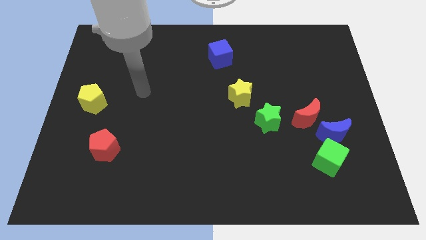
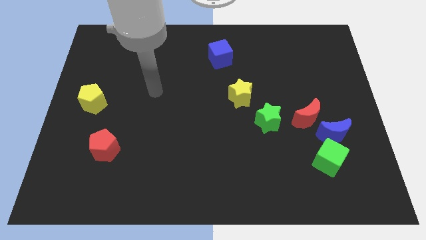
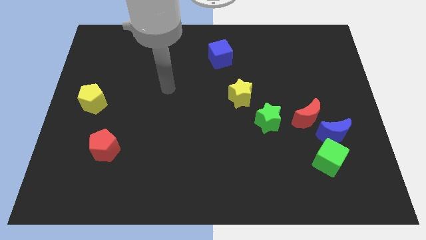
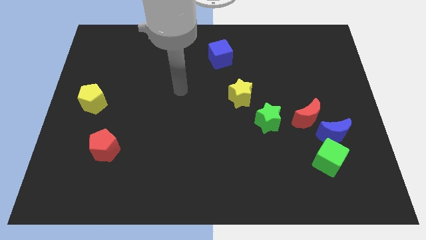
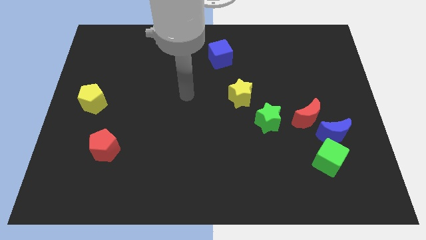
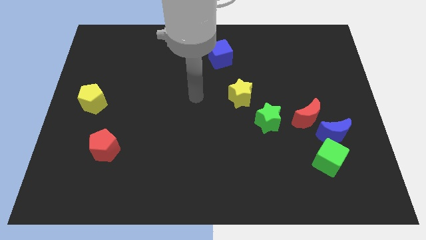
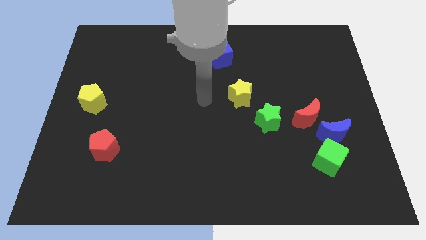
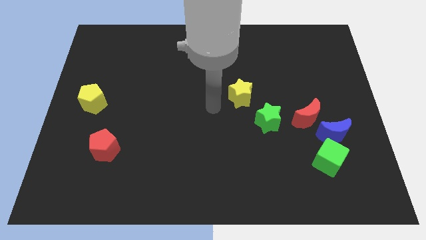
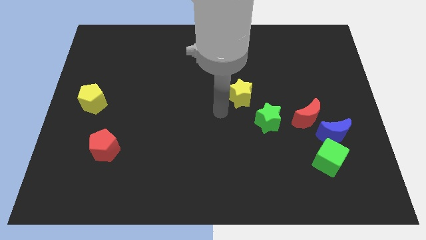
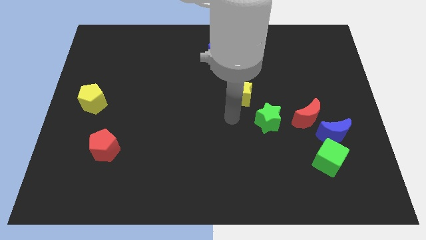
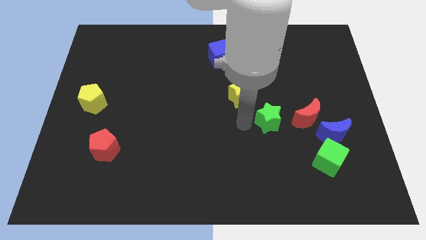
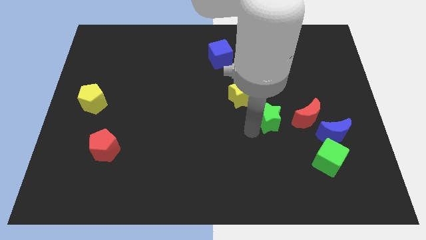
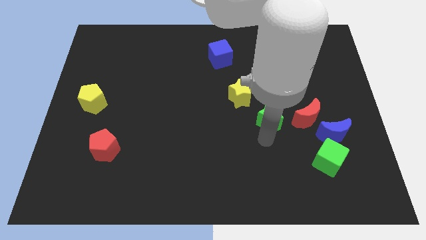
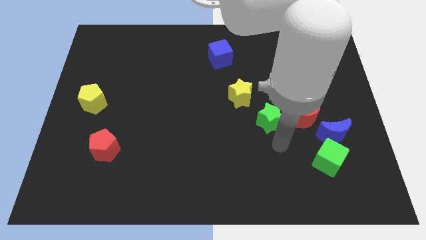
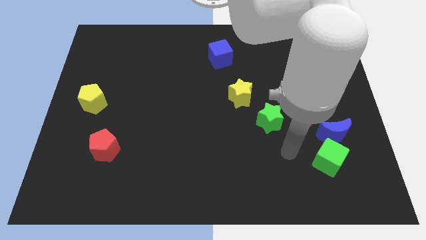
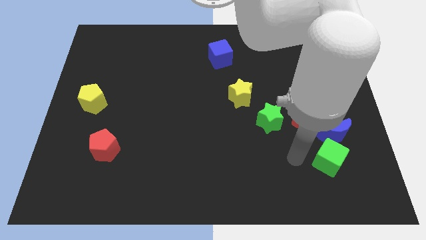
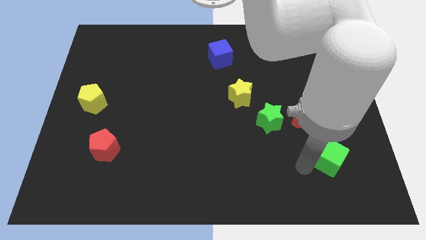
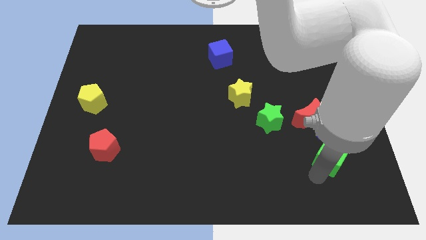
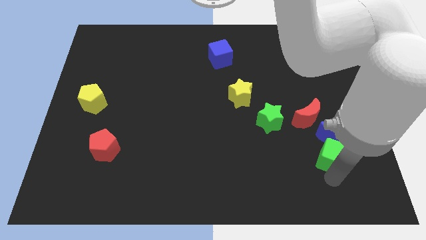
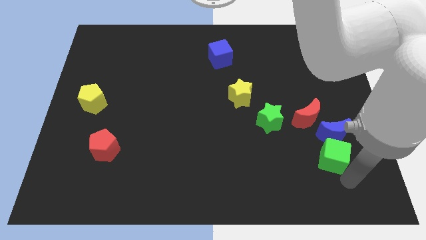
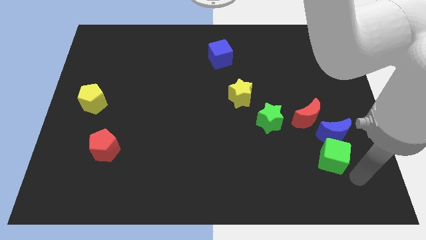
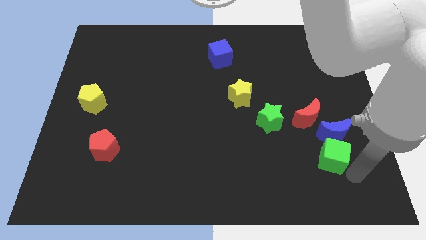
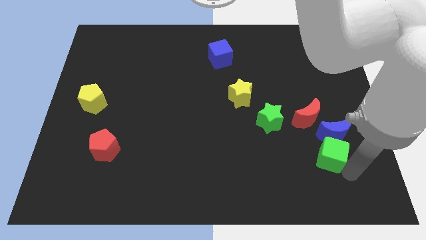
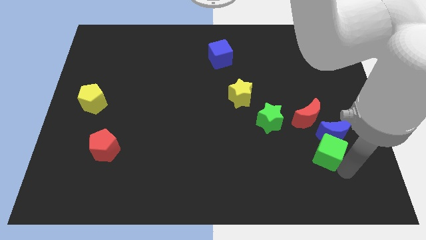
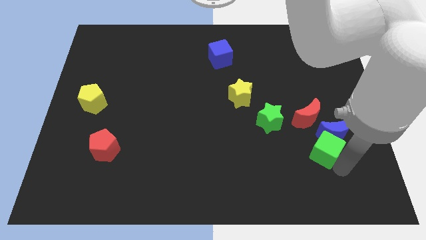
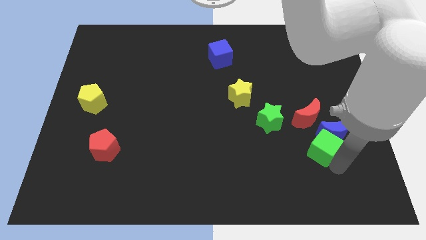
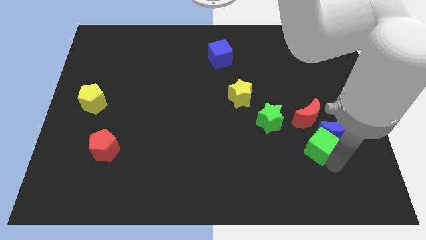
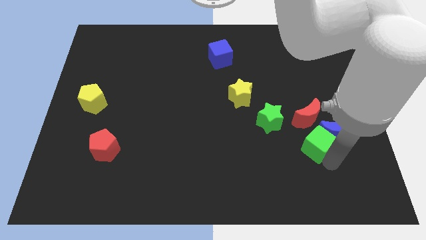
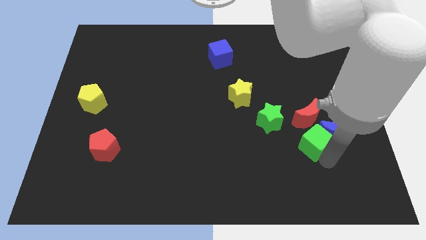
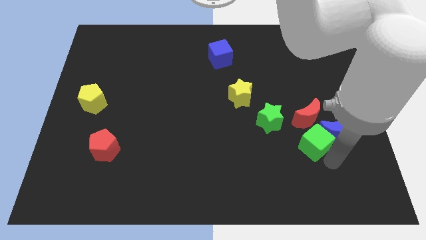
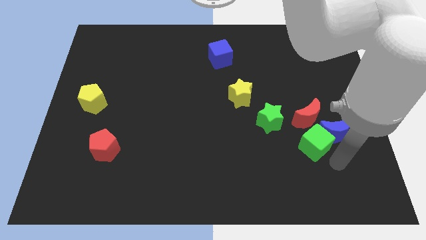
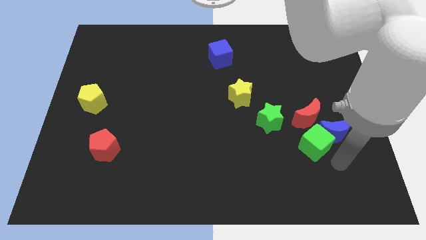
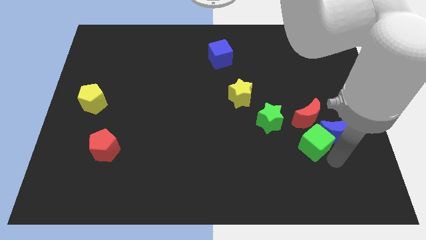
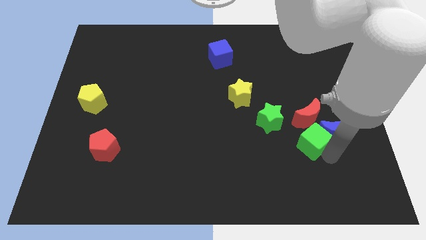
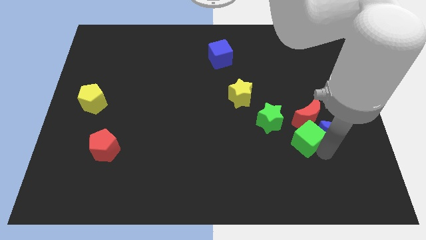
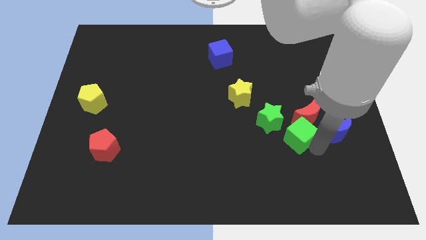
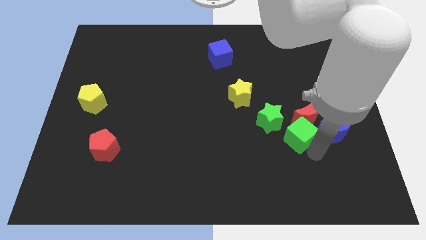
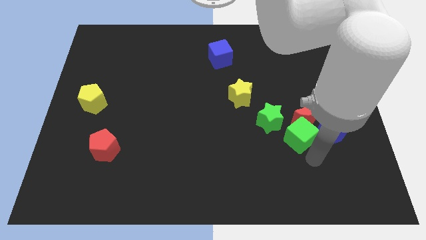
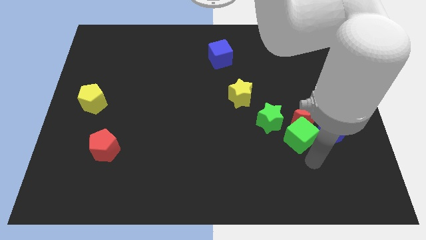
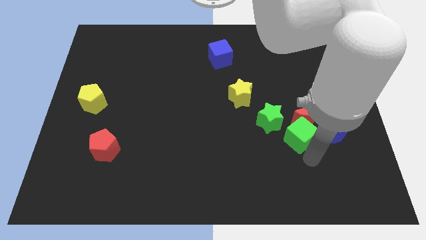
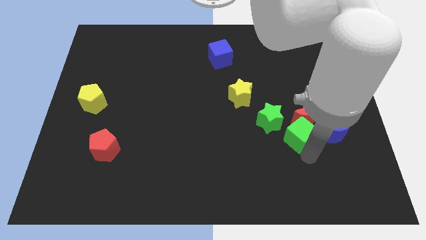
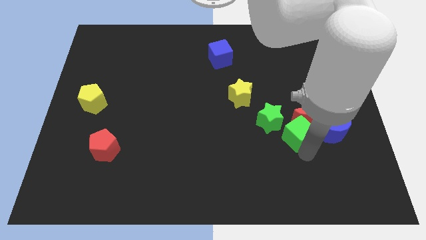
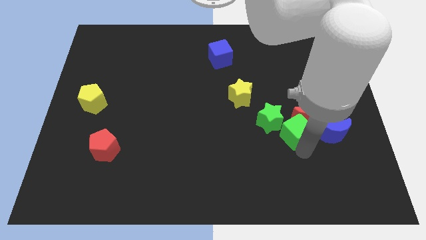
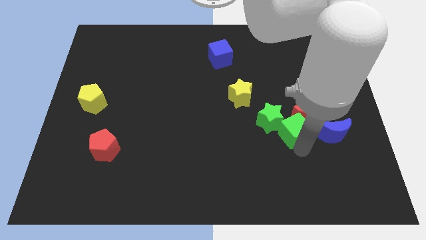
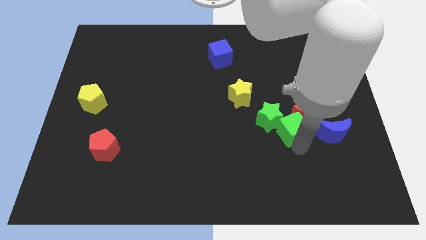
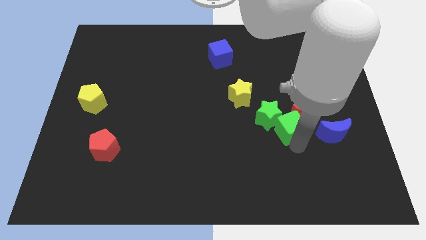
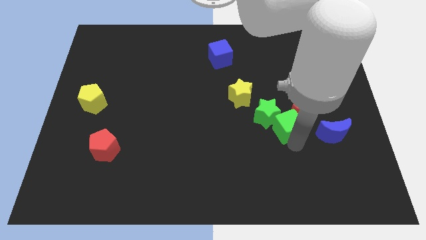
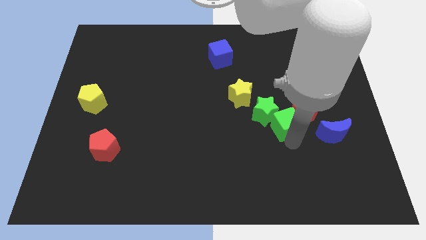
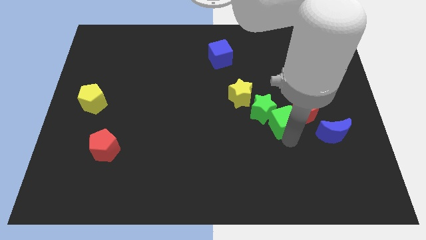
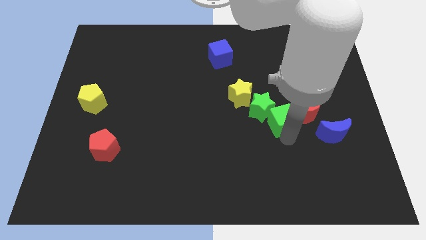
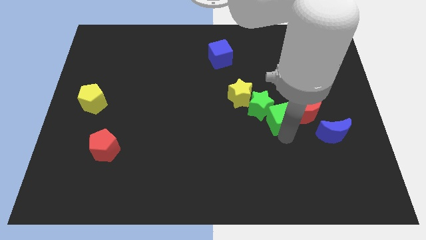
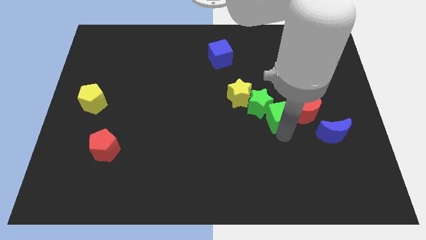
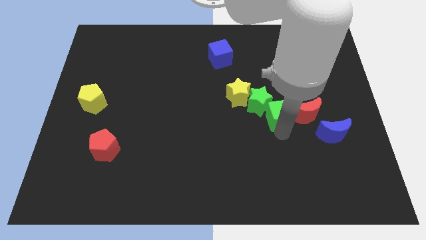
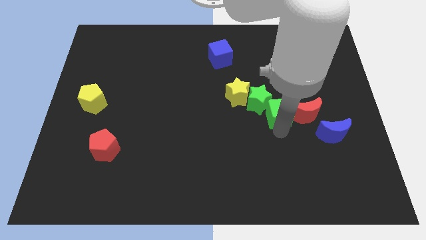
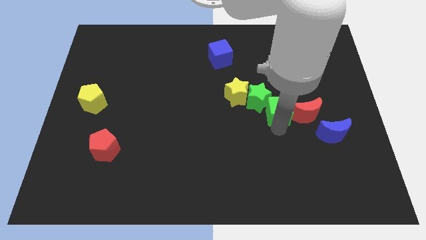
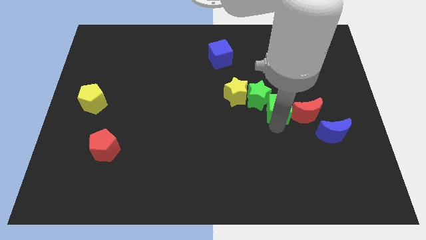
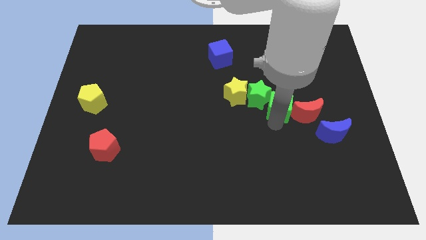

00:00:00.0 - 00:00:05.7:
push the green cube to the right of the yellow star

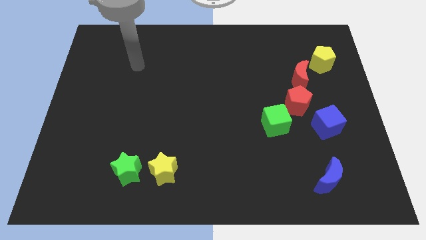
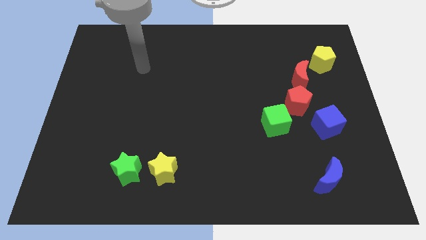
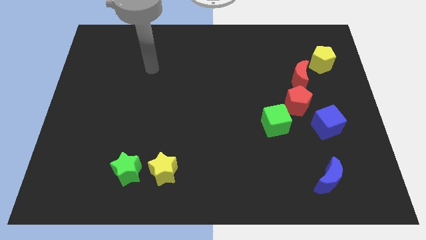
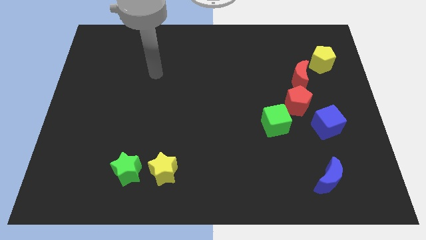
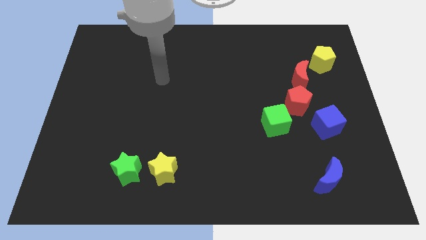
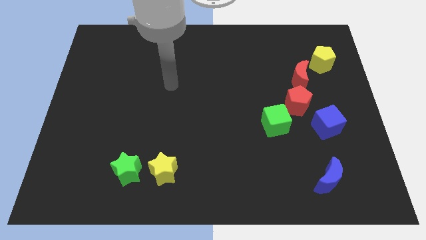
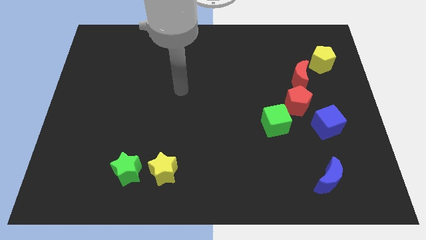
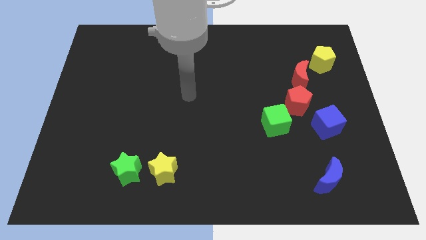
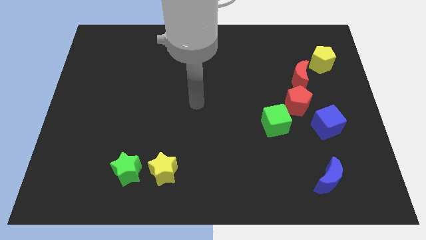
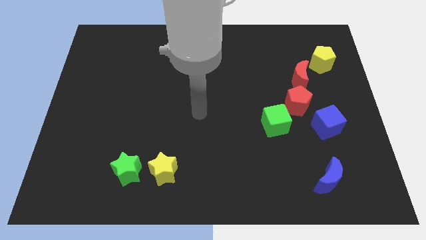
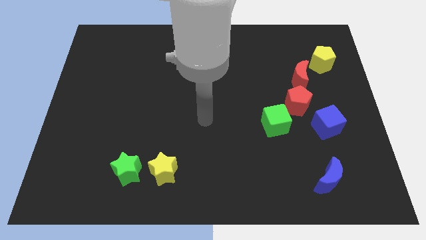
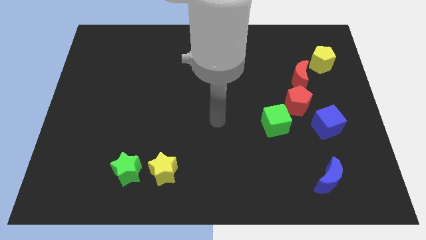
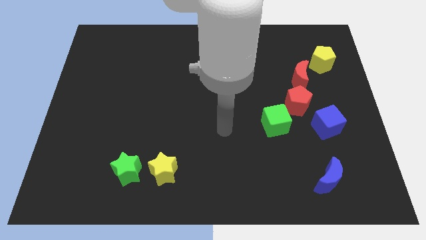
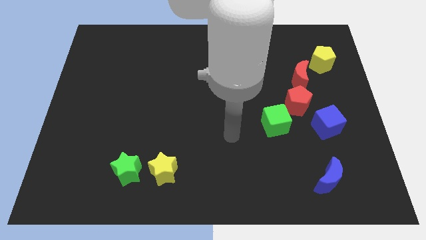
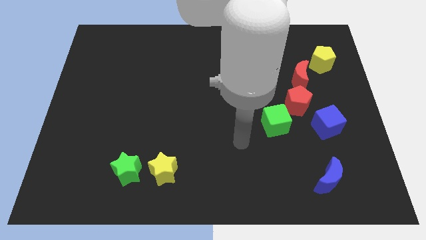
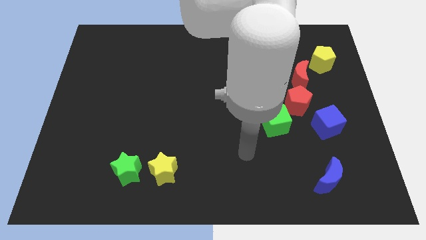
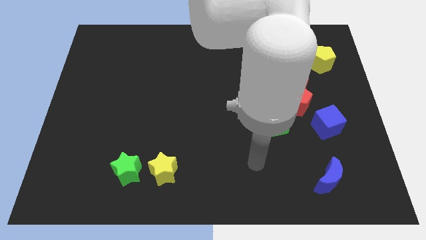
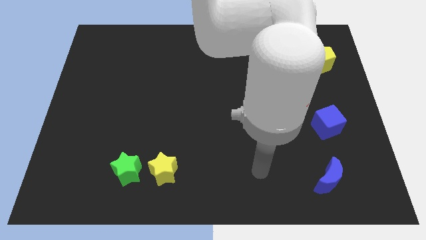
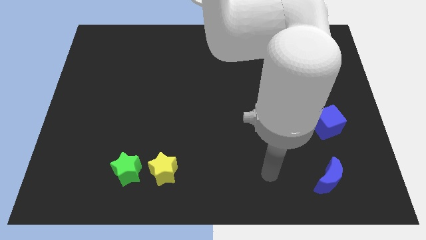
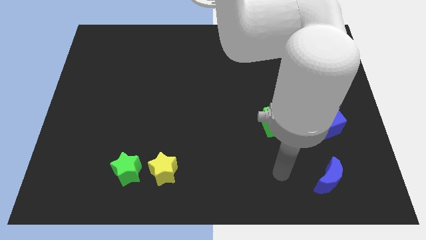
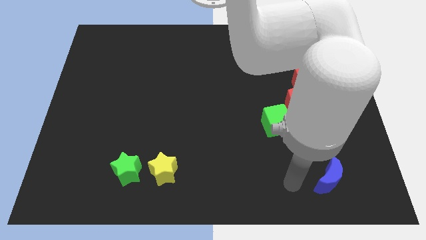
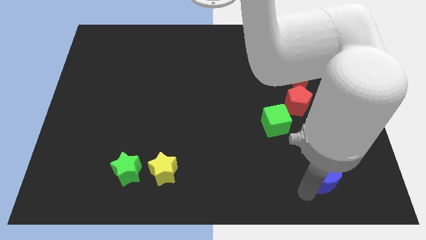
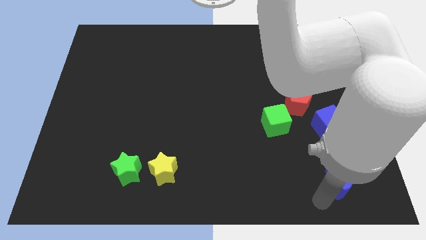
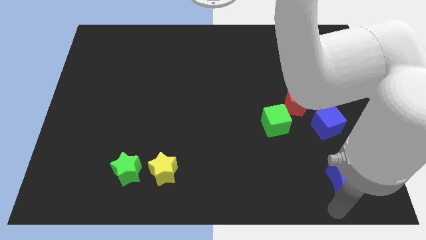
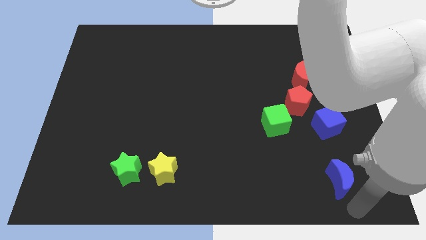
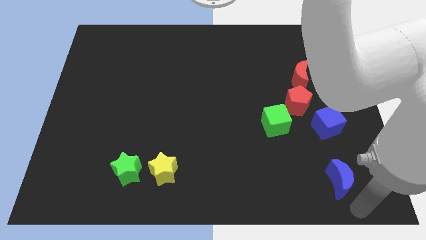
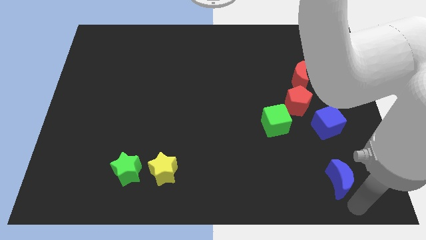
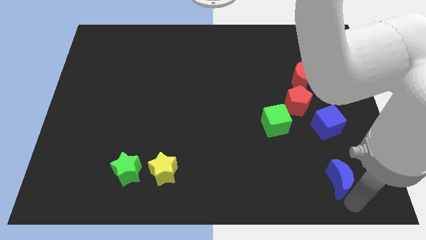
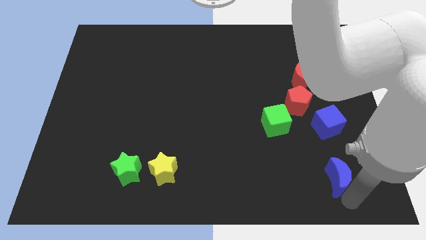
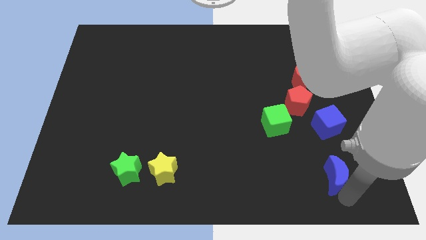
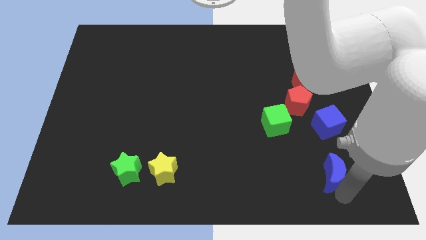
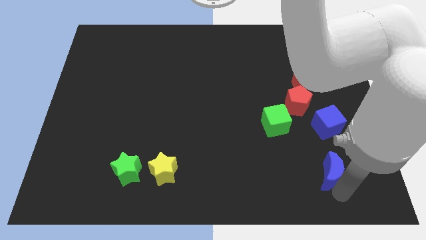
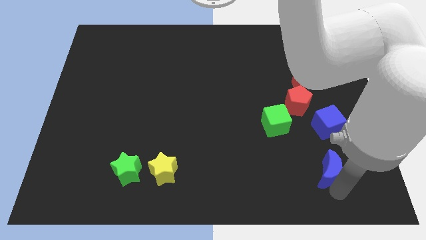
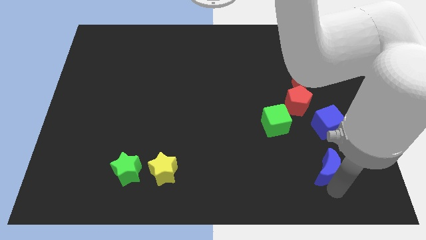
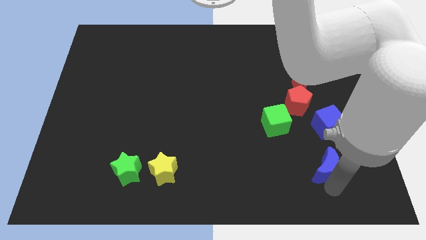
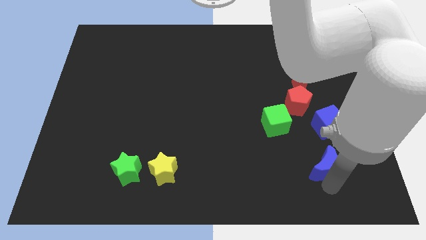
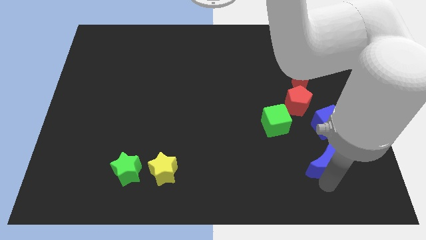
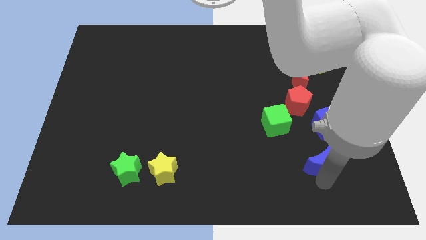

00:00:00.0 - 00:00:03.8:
put the blue moon to the bottom left of the blue cube
